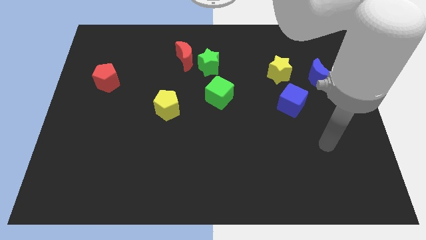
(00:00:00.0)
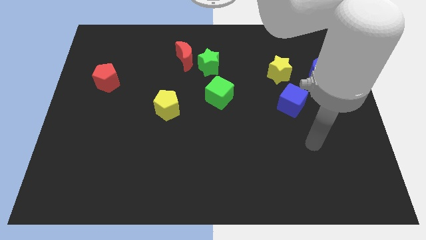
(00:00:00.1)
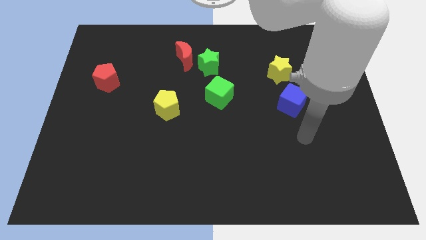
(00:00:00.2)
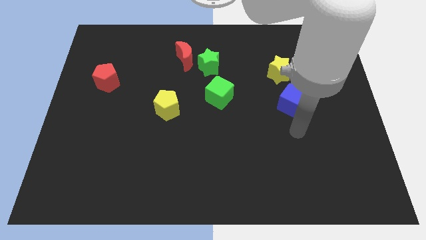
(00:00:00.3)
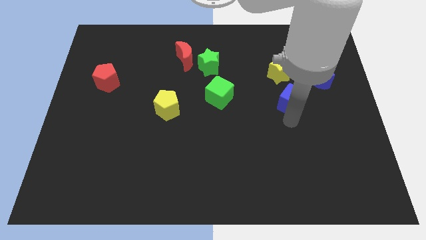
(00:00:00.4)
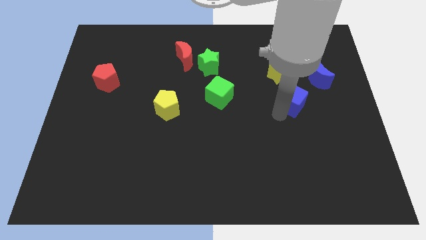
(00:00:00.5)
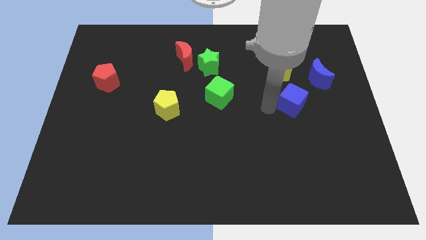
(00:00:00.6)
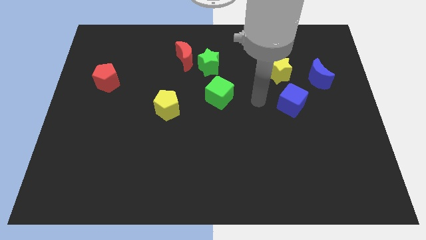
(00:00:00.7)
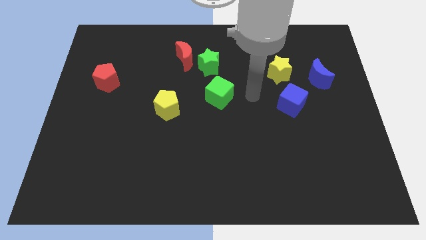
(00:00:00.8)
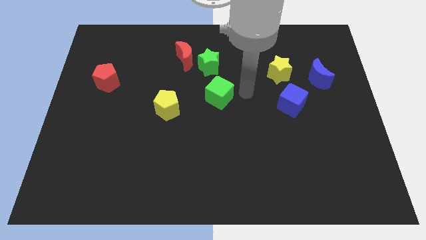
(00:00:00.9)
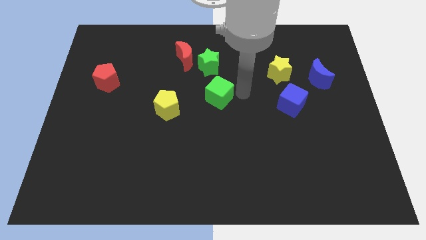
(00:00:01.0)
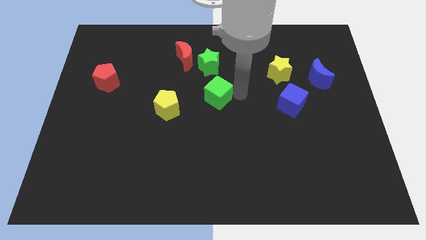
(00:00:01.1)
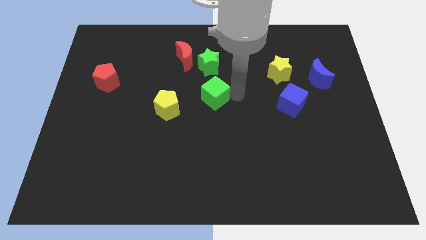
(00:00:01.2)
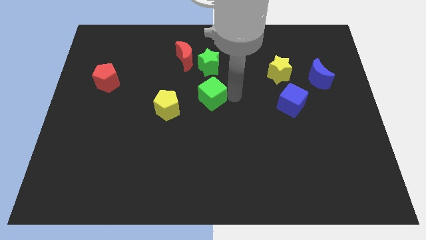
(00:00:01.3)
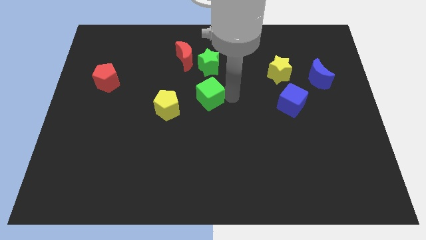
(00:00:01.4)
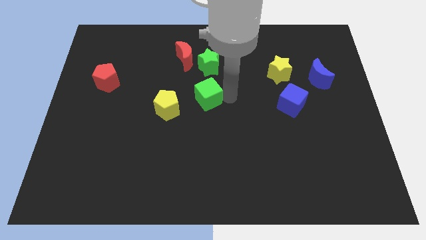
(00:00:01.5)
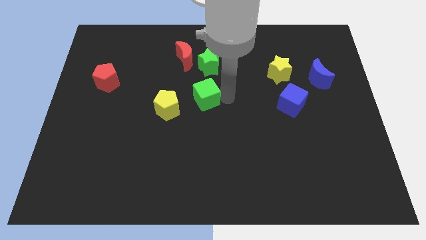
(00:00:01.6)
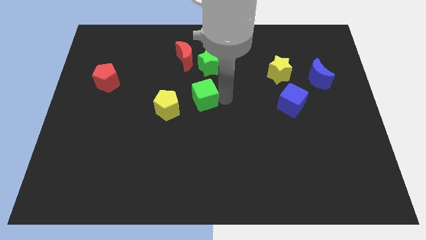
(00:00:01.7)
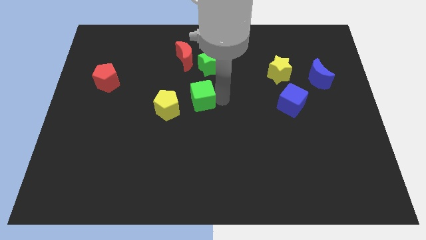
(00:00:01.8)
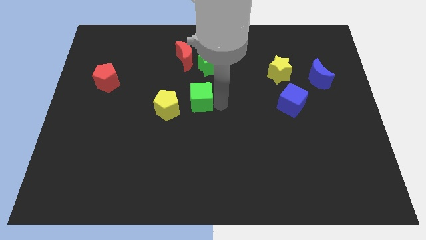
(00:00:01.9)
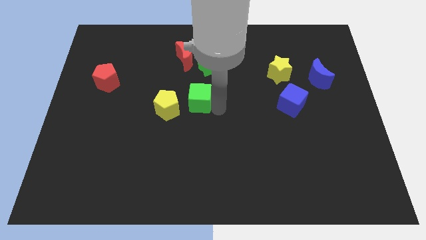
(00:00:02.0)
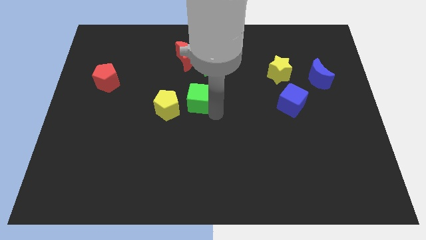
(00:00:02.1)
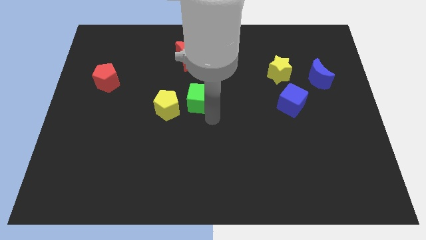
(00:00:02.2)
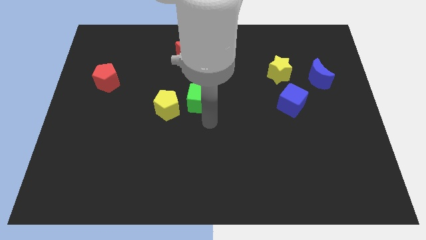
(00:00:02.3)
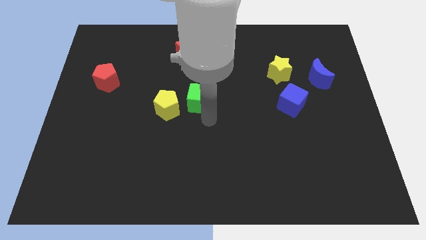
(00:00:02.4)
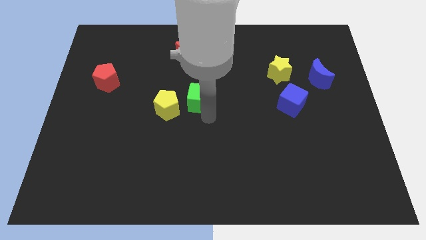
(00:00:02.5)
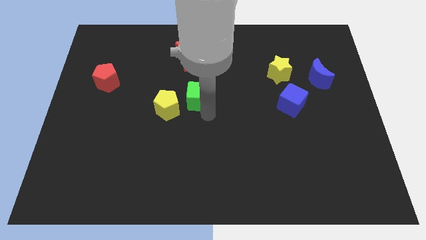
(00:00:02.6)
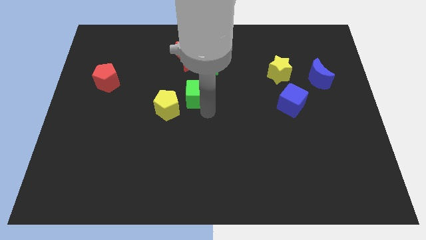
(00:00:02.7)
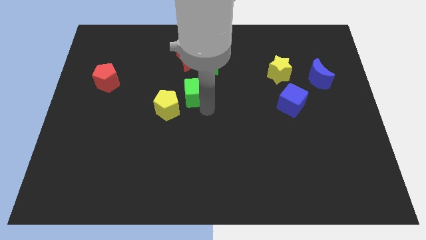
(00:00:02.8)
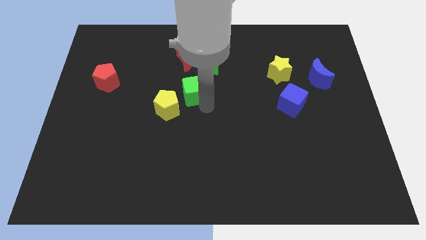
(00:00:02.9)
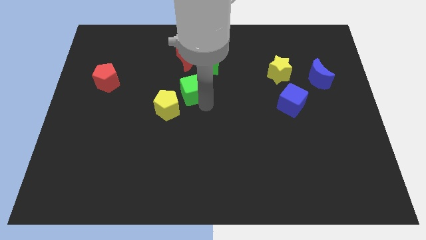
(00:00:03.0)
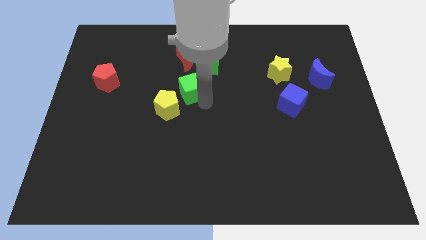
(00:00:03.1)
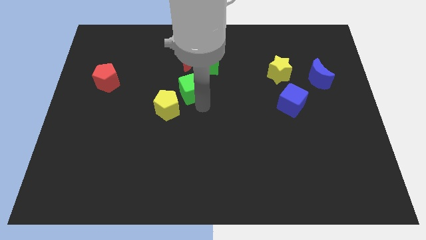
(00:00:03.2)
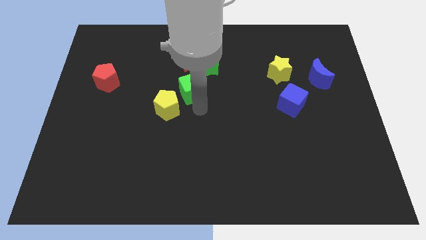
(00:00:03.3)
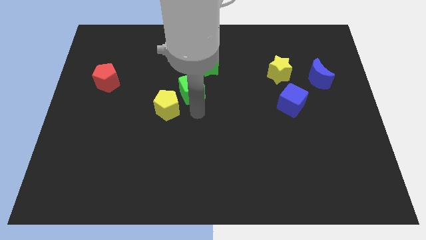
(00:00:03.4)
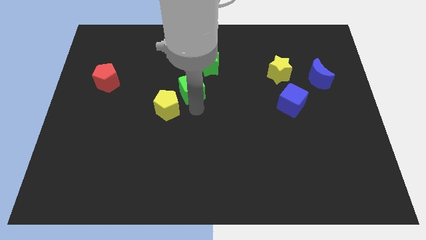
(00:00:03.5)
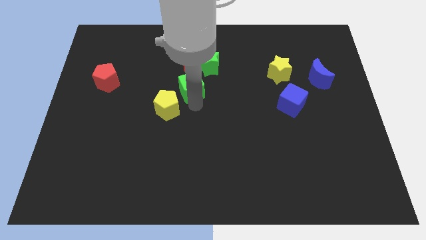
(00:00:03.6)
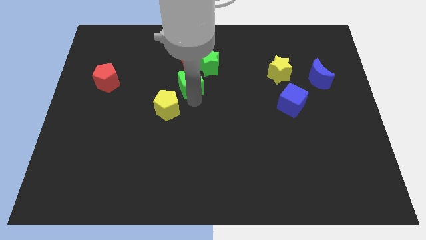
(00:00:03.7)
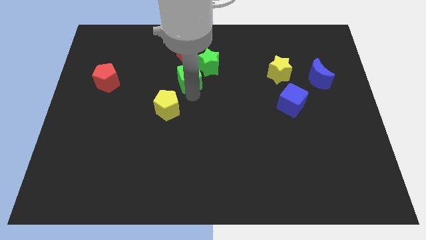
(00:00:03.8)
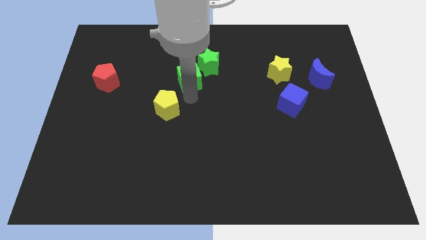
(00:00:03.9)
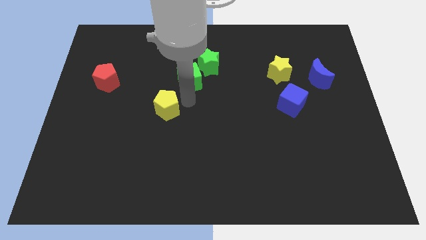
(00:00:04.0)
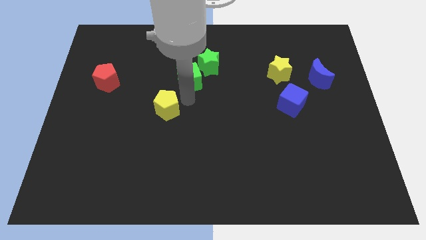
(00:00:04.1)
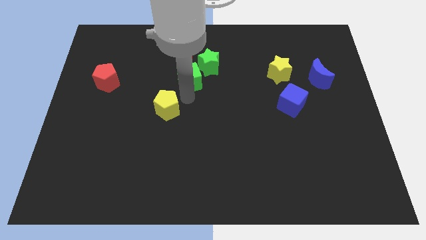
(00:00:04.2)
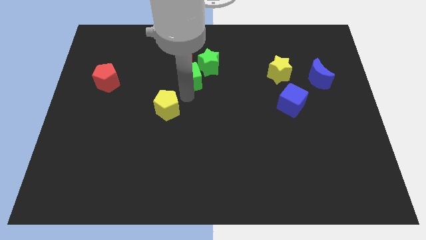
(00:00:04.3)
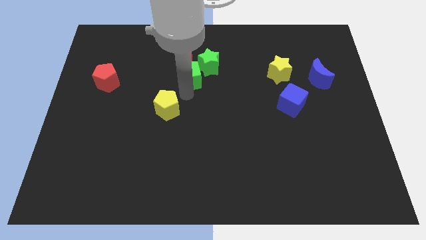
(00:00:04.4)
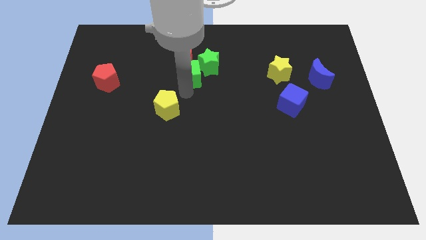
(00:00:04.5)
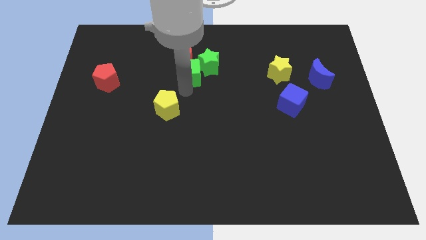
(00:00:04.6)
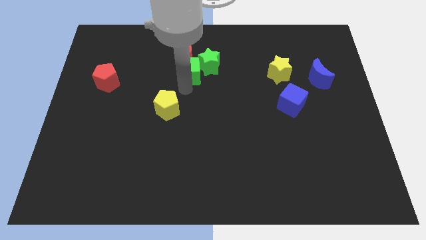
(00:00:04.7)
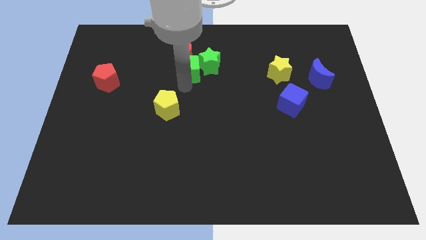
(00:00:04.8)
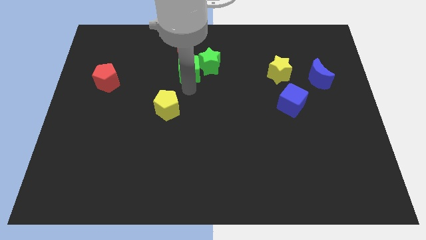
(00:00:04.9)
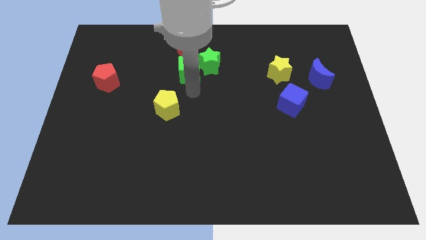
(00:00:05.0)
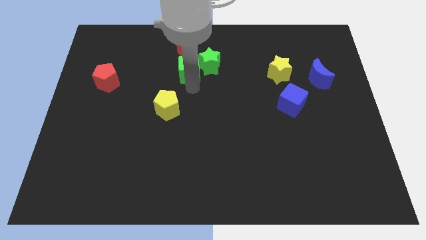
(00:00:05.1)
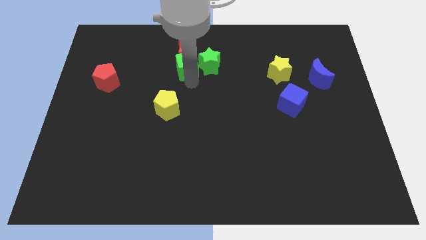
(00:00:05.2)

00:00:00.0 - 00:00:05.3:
put the green cube close to the red moon

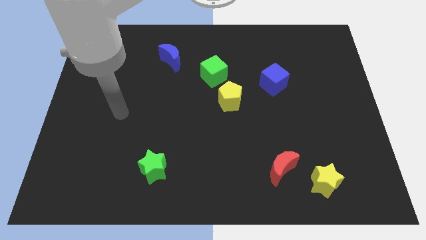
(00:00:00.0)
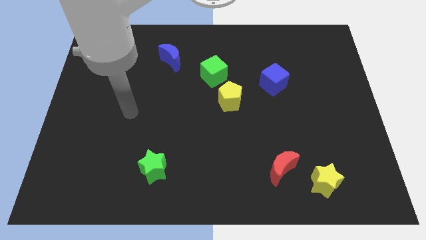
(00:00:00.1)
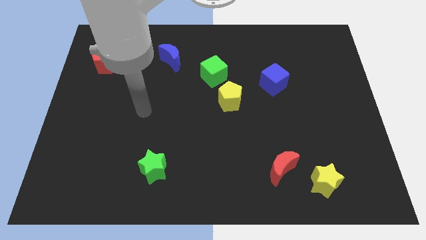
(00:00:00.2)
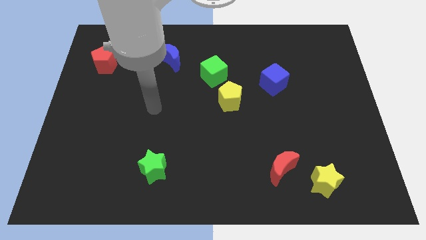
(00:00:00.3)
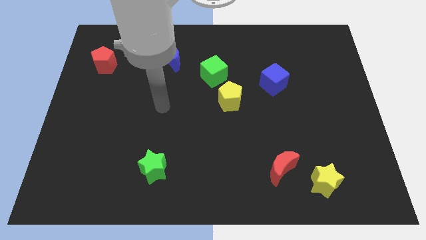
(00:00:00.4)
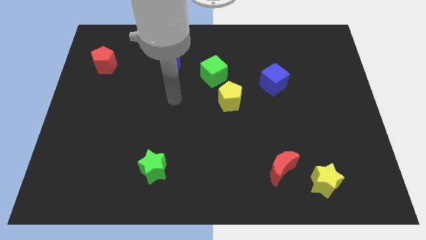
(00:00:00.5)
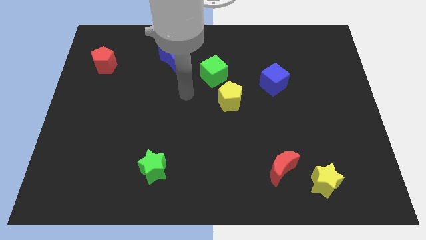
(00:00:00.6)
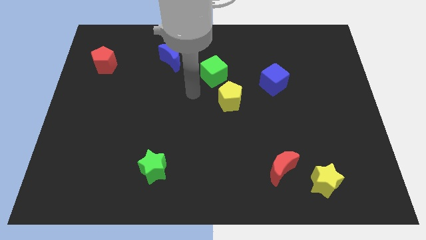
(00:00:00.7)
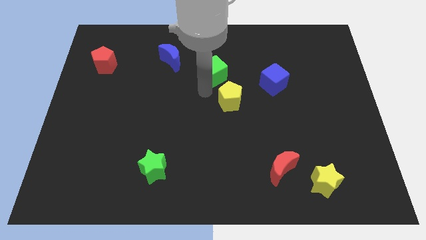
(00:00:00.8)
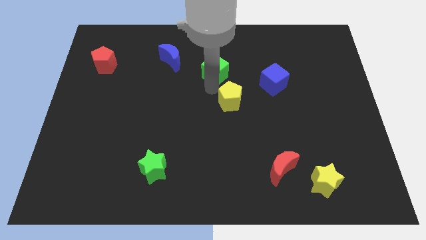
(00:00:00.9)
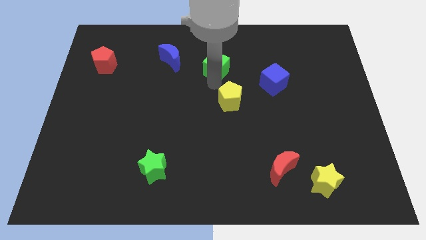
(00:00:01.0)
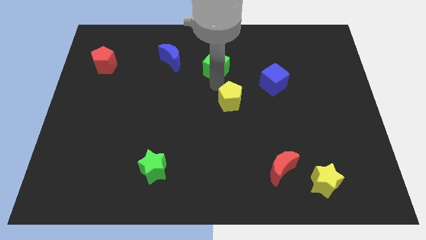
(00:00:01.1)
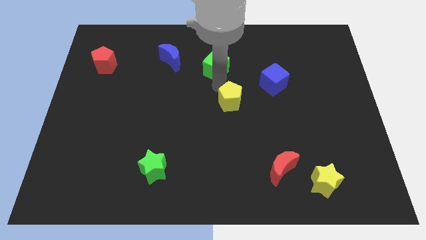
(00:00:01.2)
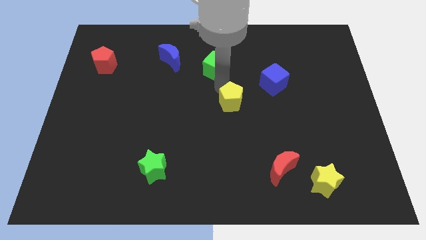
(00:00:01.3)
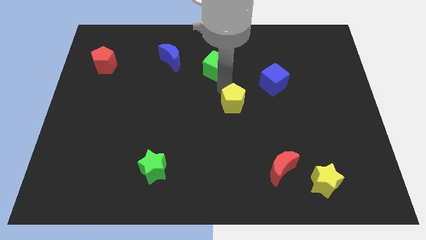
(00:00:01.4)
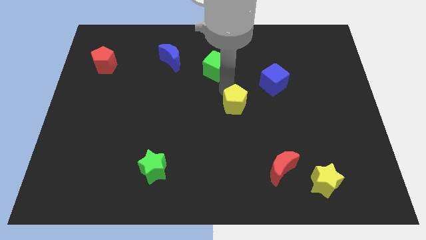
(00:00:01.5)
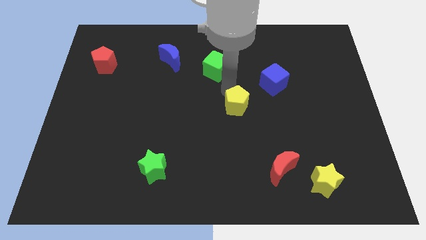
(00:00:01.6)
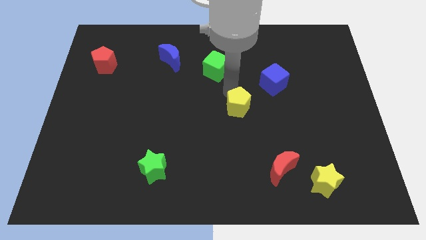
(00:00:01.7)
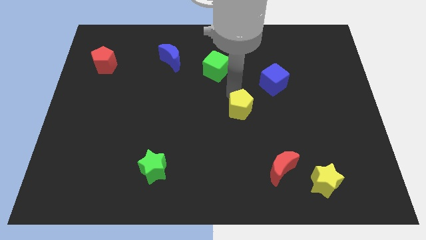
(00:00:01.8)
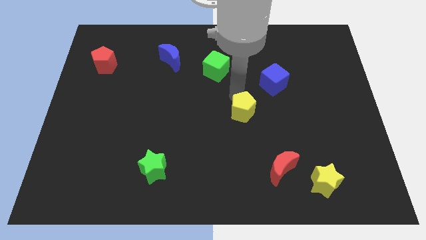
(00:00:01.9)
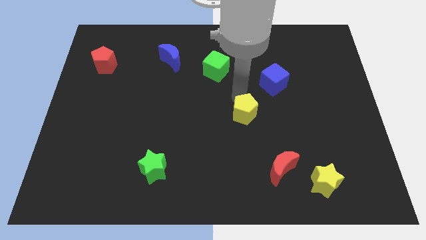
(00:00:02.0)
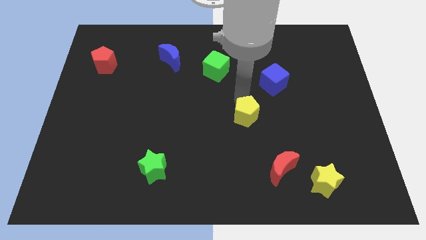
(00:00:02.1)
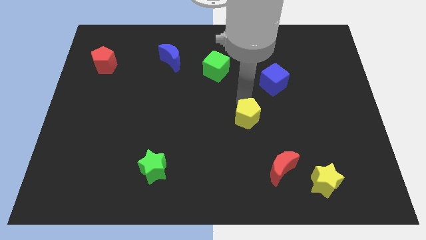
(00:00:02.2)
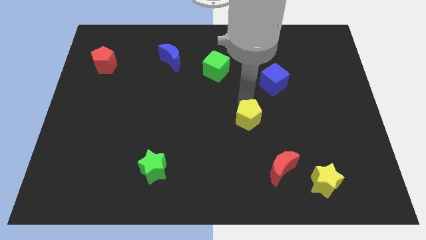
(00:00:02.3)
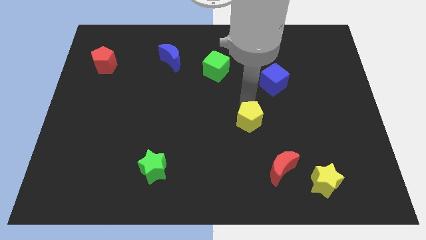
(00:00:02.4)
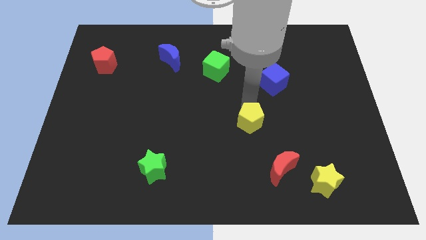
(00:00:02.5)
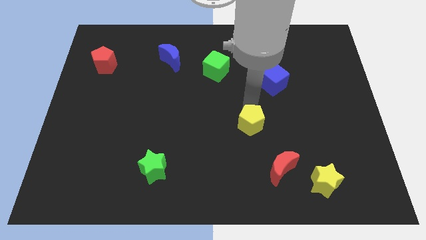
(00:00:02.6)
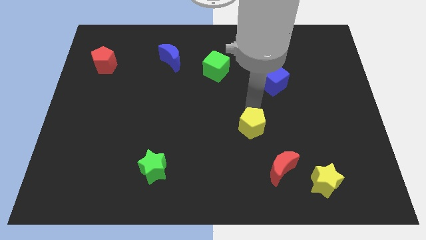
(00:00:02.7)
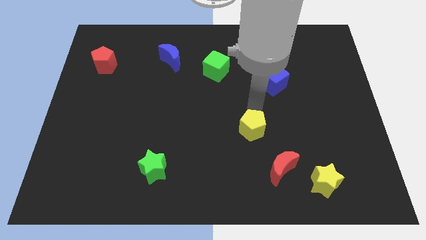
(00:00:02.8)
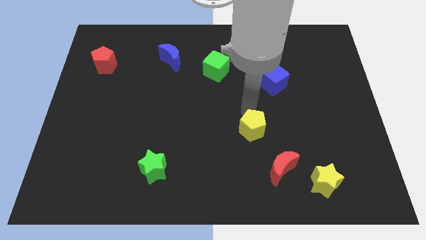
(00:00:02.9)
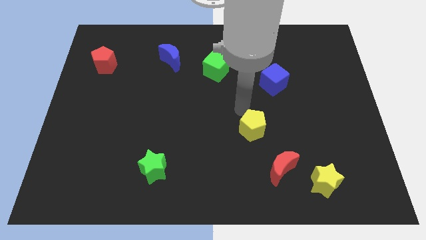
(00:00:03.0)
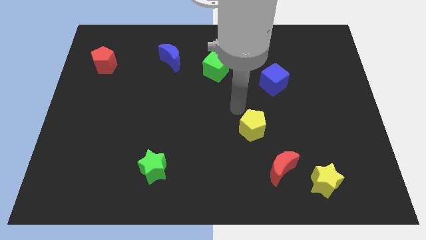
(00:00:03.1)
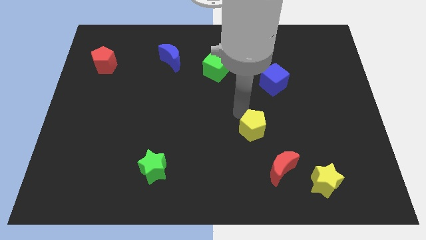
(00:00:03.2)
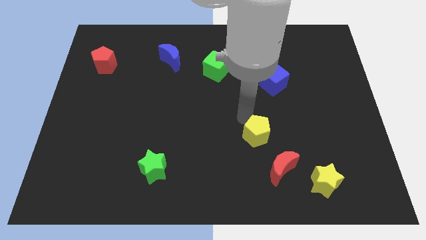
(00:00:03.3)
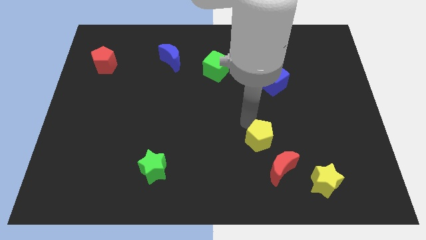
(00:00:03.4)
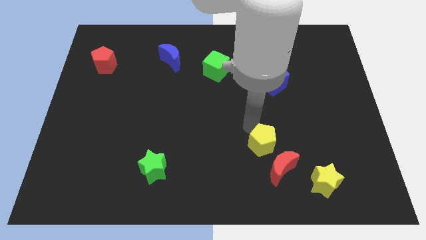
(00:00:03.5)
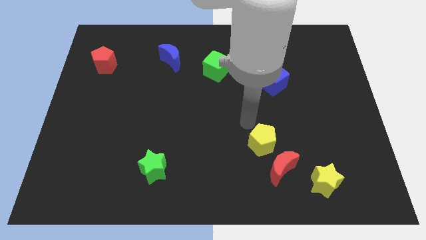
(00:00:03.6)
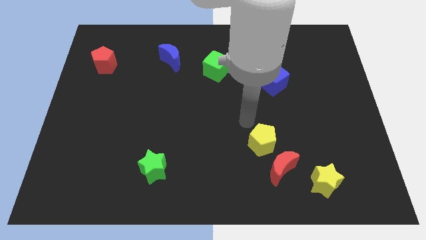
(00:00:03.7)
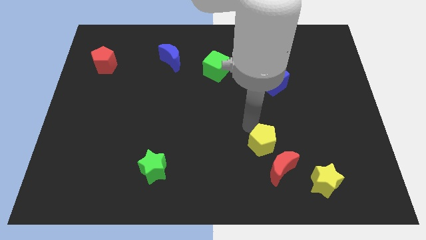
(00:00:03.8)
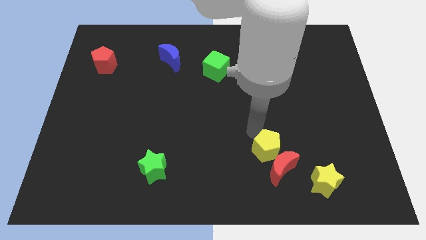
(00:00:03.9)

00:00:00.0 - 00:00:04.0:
slide the yellow pentagon to the red moon
